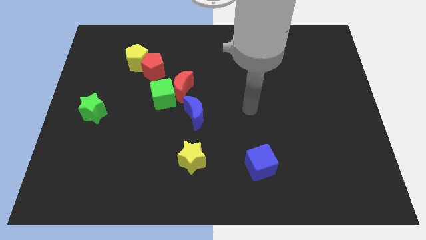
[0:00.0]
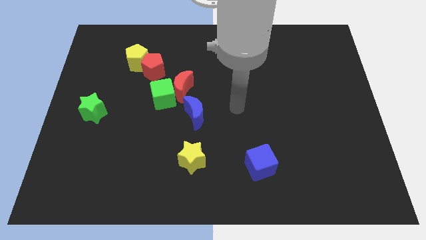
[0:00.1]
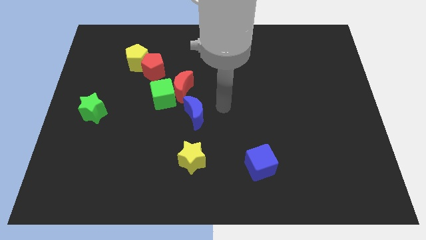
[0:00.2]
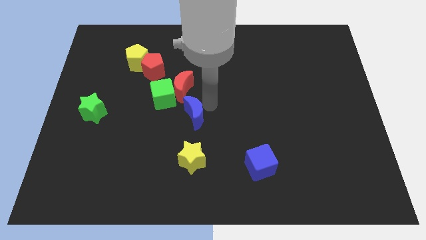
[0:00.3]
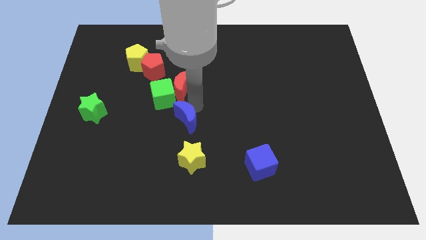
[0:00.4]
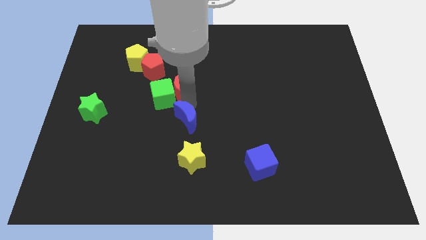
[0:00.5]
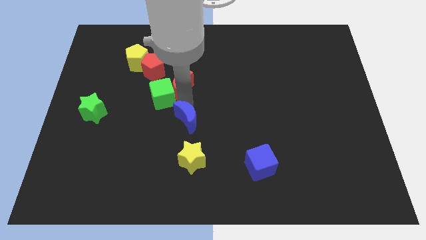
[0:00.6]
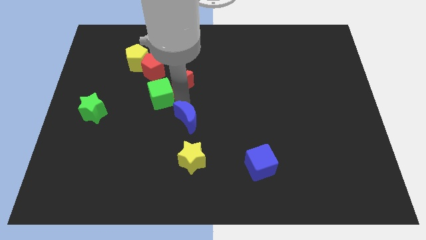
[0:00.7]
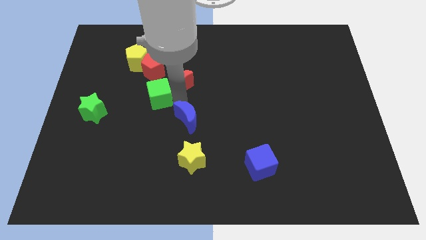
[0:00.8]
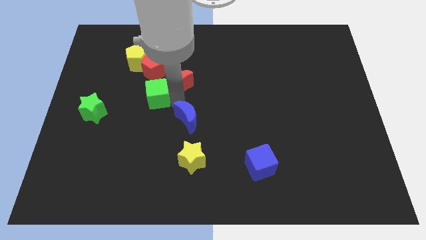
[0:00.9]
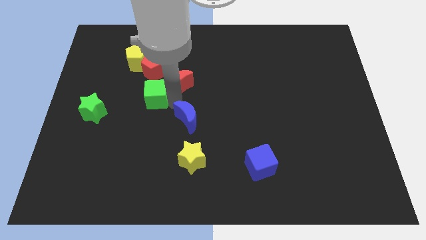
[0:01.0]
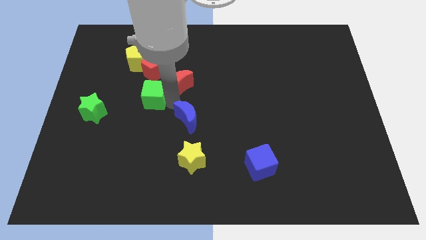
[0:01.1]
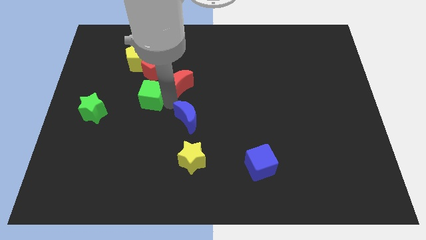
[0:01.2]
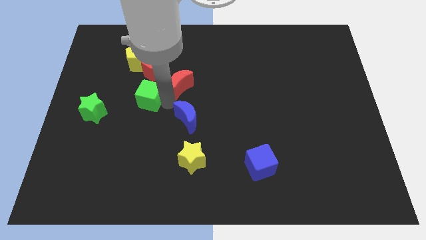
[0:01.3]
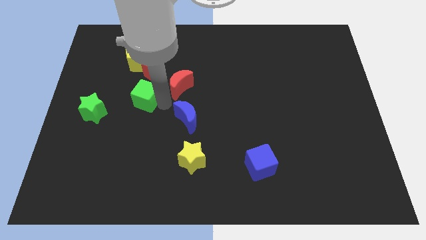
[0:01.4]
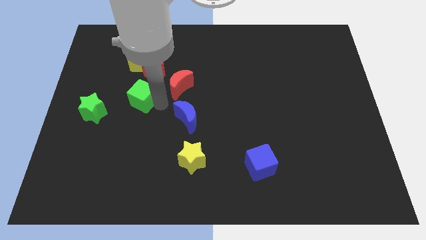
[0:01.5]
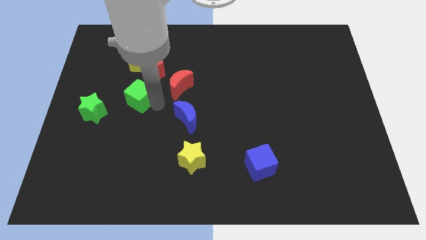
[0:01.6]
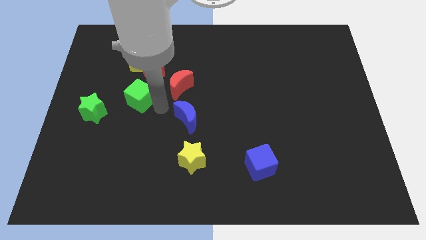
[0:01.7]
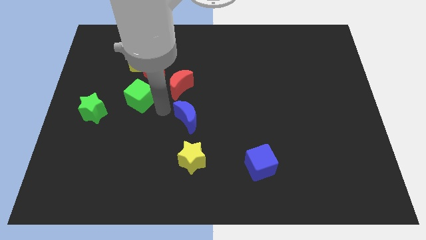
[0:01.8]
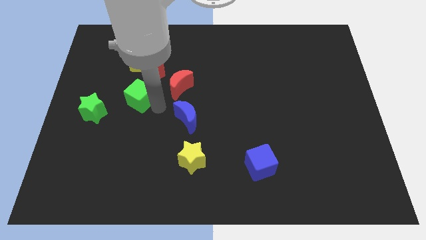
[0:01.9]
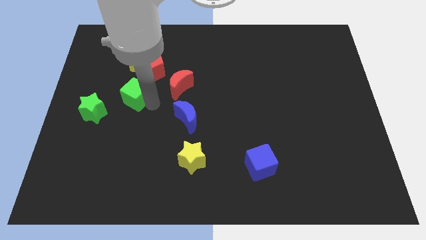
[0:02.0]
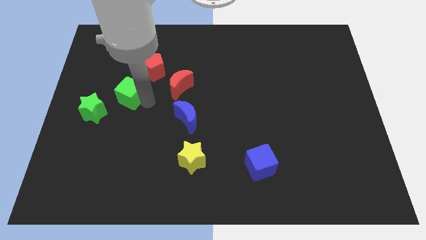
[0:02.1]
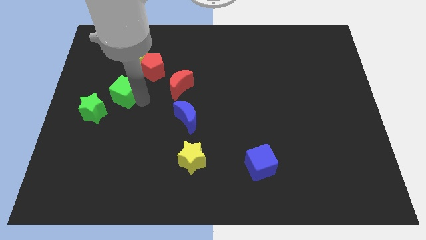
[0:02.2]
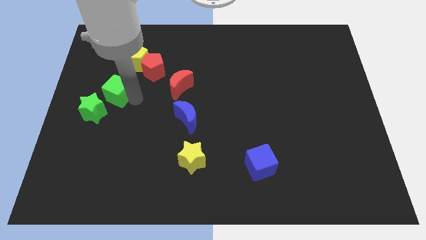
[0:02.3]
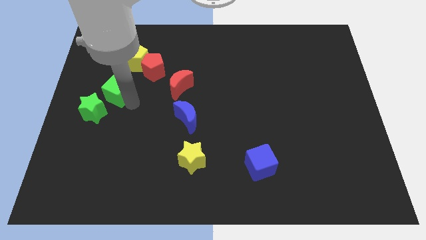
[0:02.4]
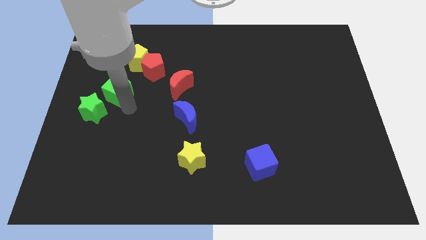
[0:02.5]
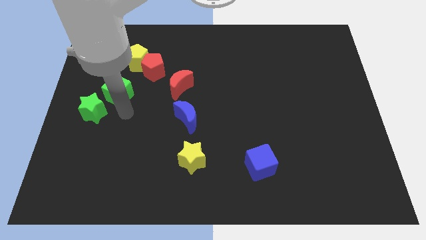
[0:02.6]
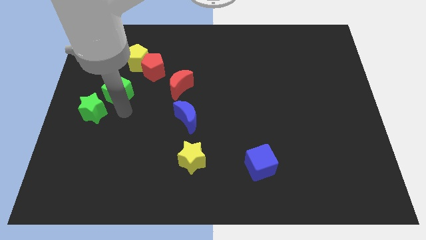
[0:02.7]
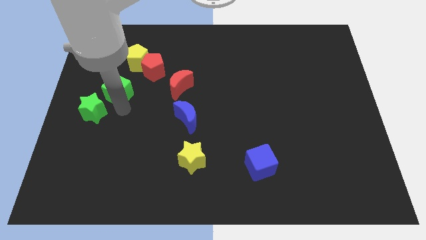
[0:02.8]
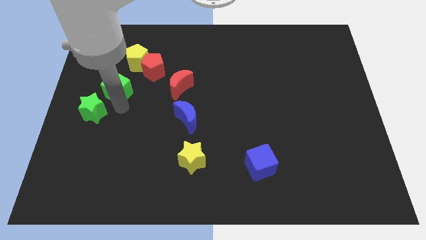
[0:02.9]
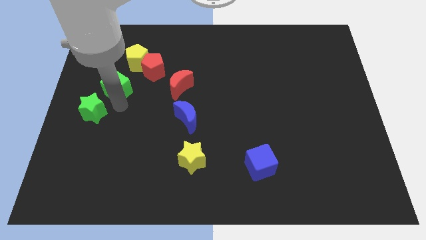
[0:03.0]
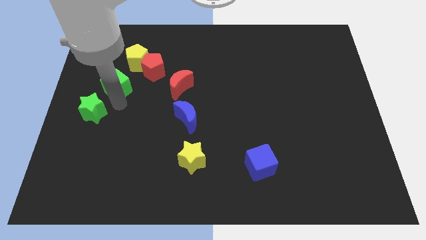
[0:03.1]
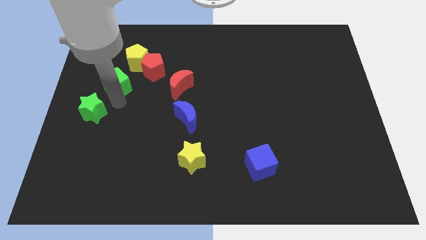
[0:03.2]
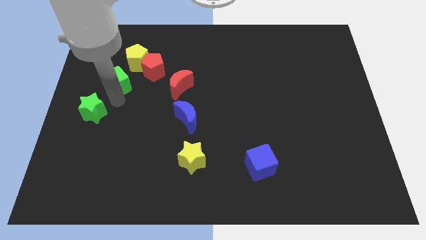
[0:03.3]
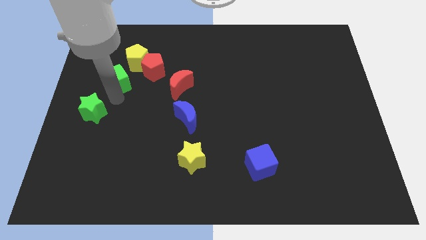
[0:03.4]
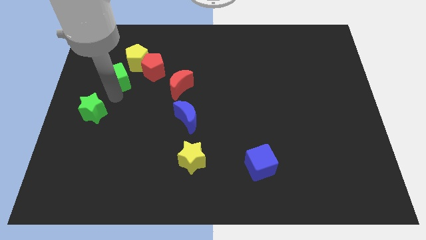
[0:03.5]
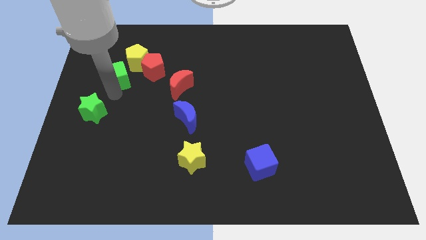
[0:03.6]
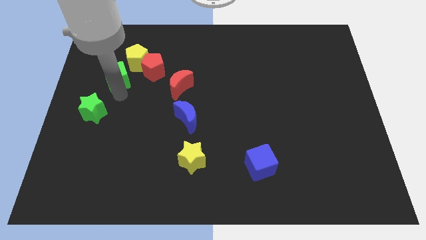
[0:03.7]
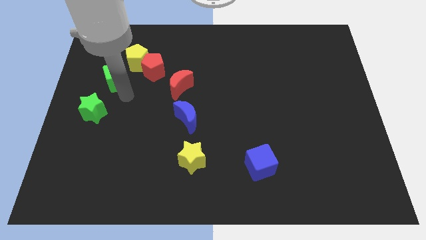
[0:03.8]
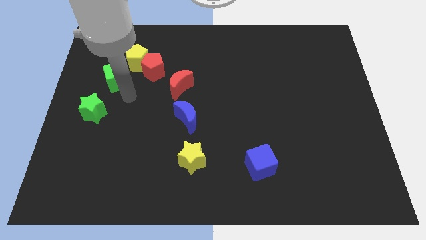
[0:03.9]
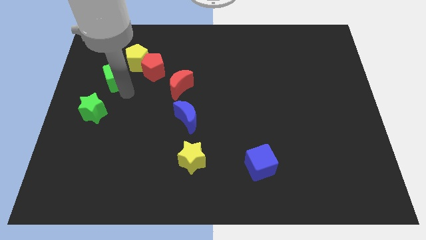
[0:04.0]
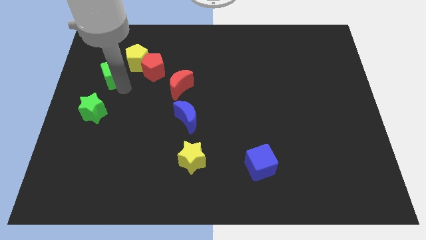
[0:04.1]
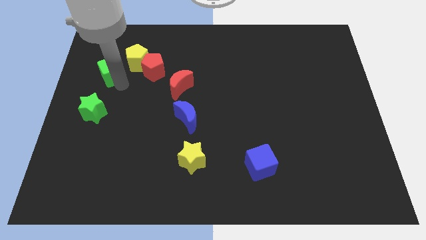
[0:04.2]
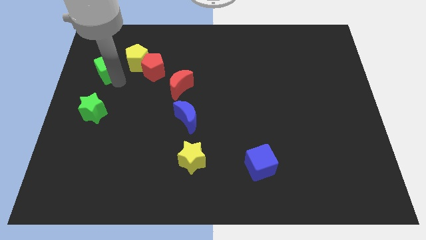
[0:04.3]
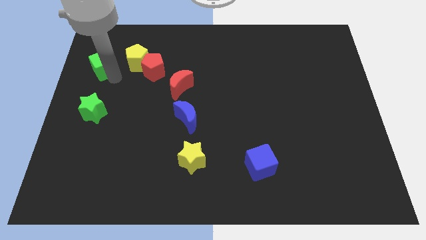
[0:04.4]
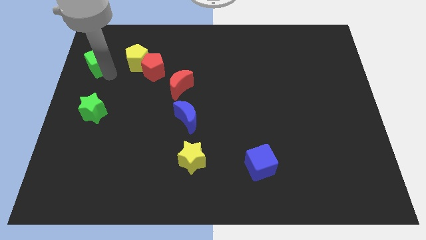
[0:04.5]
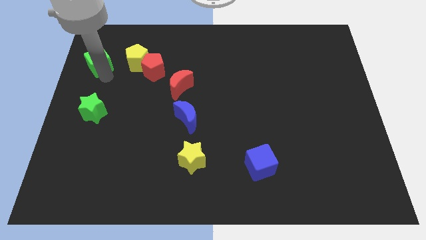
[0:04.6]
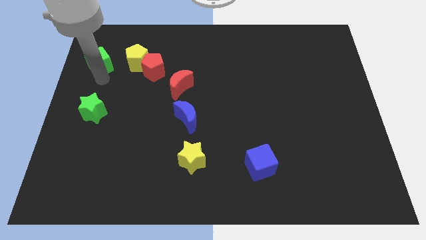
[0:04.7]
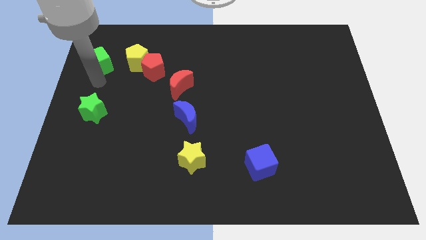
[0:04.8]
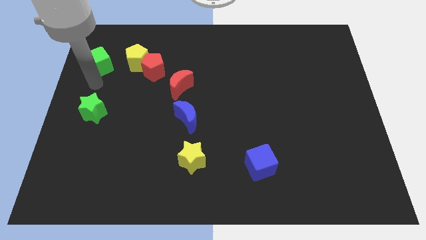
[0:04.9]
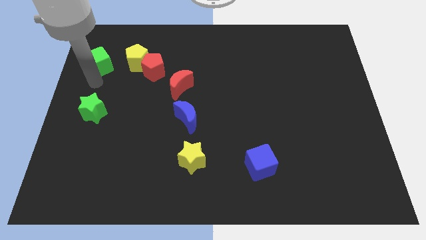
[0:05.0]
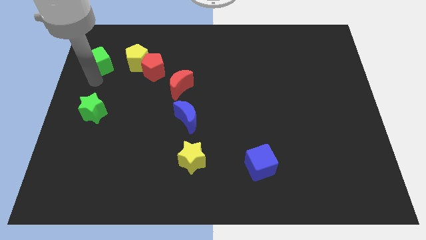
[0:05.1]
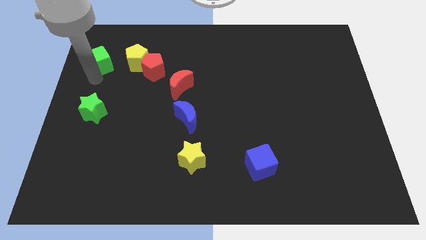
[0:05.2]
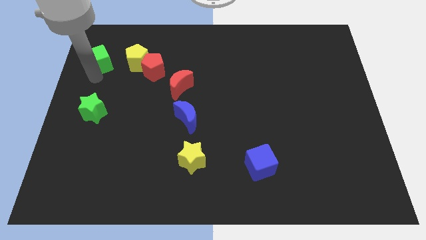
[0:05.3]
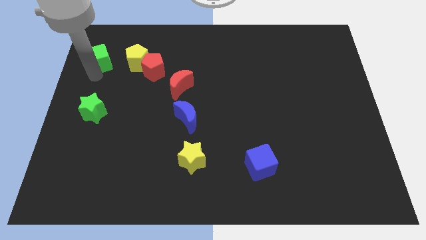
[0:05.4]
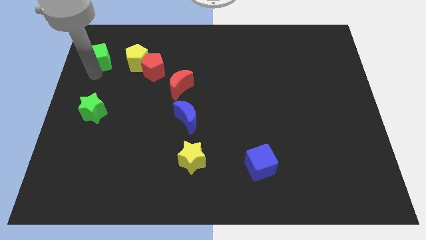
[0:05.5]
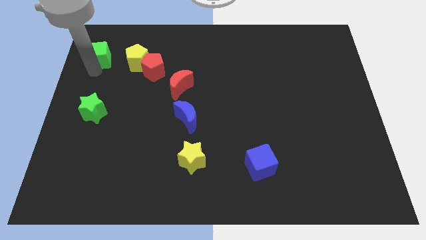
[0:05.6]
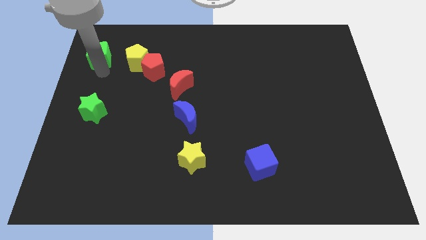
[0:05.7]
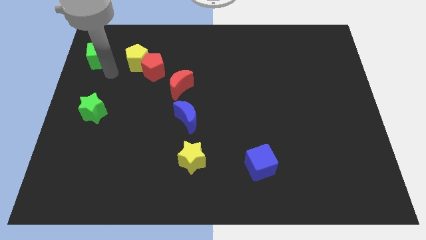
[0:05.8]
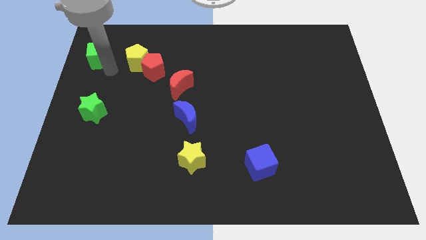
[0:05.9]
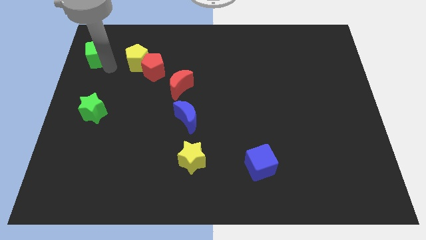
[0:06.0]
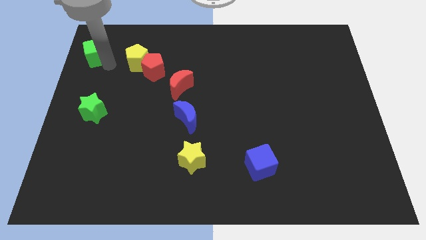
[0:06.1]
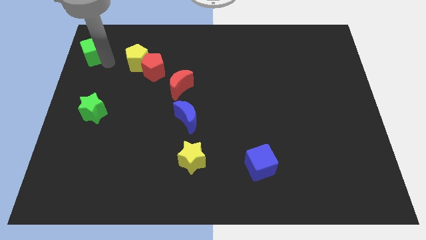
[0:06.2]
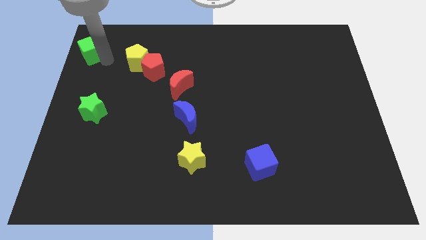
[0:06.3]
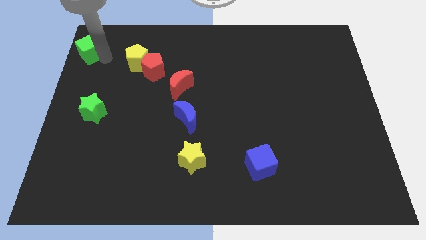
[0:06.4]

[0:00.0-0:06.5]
put the green cube to the top left
